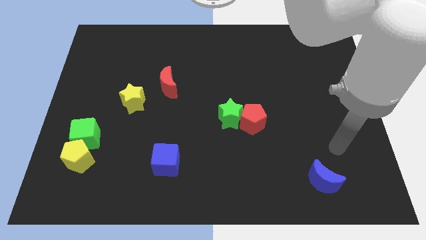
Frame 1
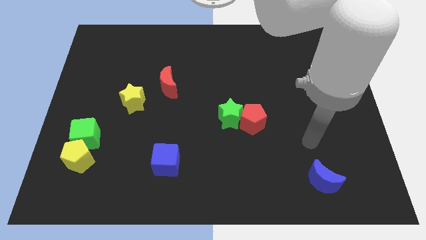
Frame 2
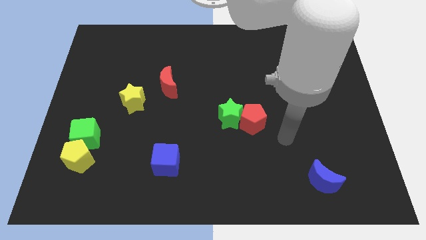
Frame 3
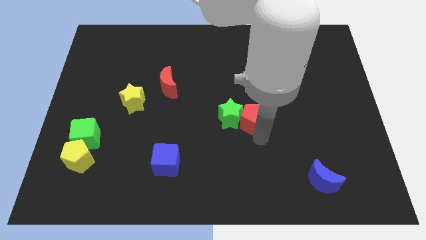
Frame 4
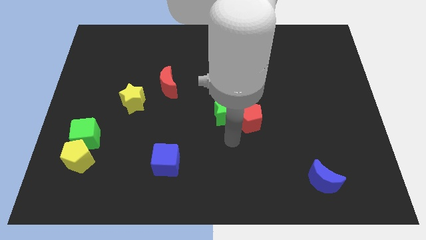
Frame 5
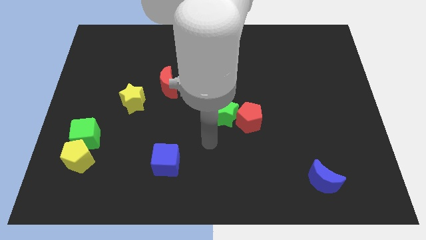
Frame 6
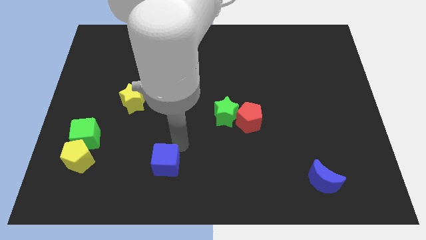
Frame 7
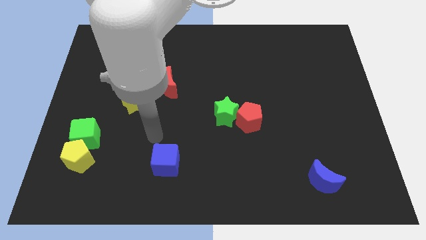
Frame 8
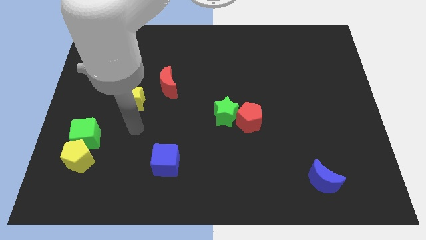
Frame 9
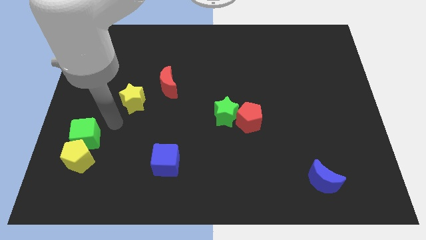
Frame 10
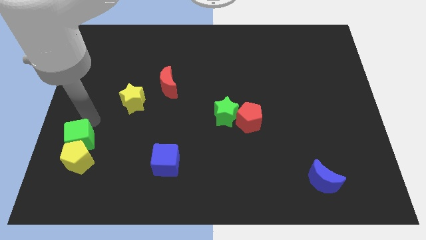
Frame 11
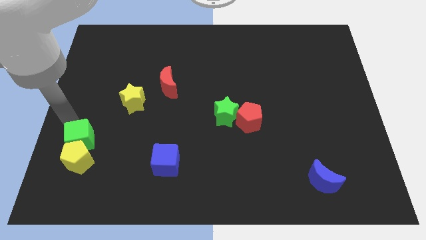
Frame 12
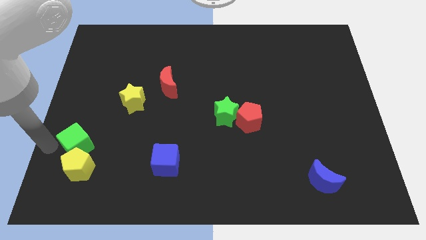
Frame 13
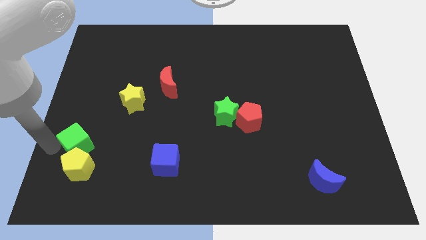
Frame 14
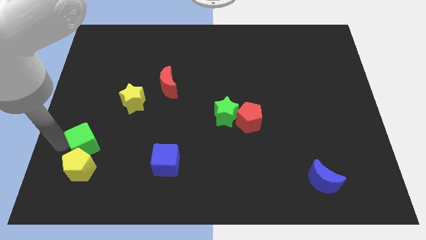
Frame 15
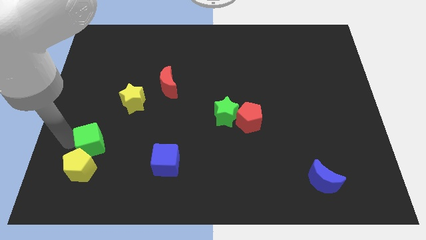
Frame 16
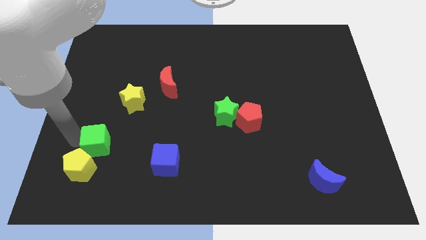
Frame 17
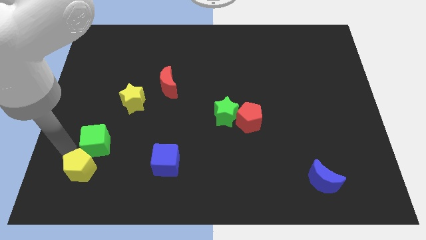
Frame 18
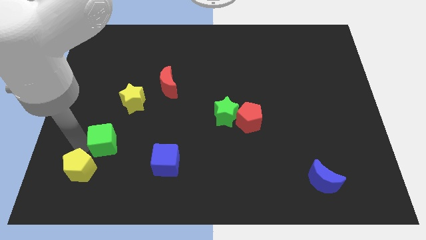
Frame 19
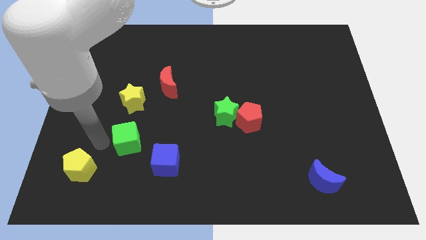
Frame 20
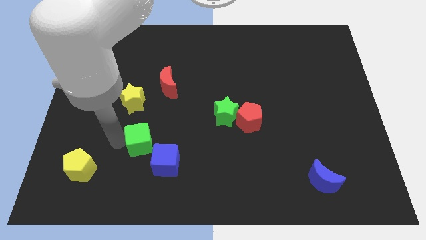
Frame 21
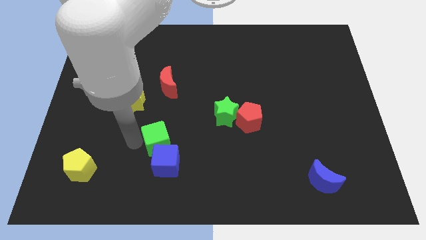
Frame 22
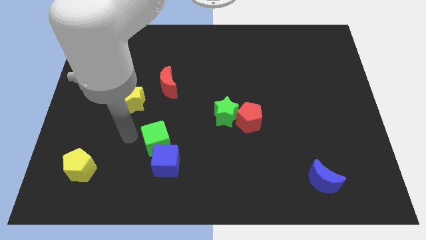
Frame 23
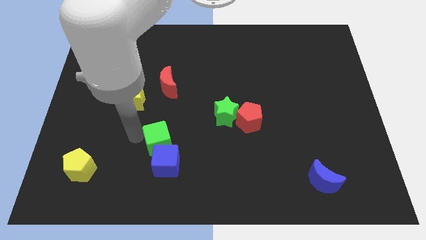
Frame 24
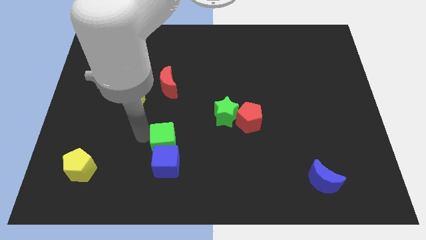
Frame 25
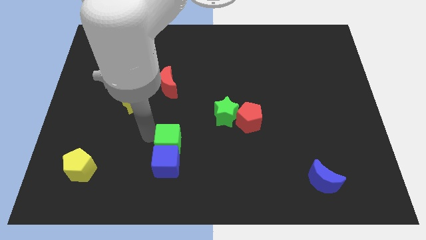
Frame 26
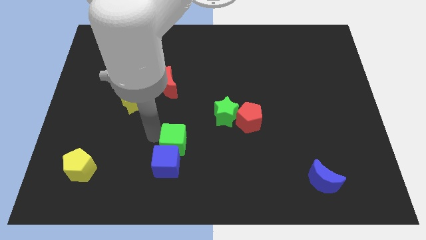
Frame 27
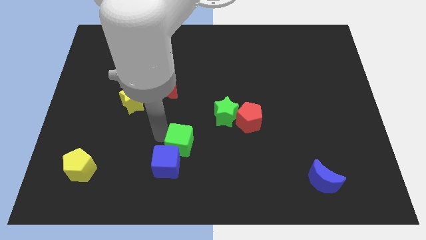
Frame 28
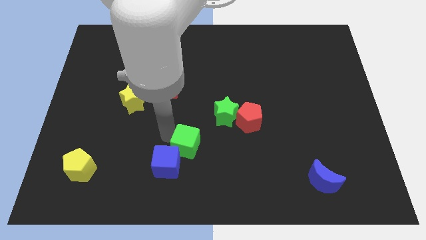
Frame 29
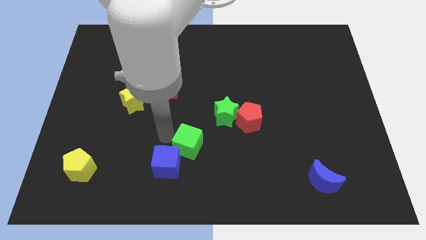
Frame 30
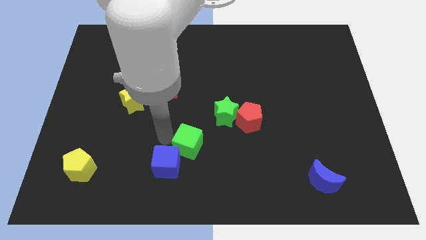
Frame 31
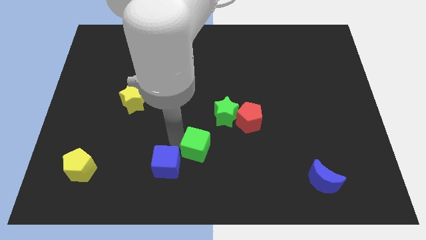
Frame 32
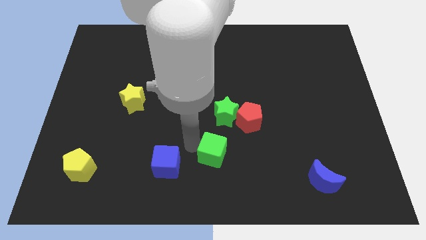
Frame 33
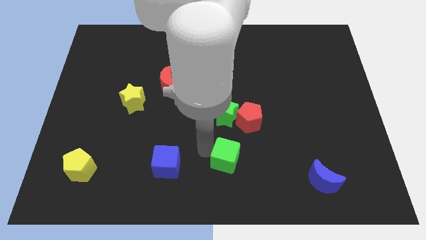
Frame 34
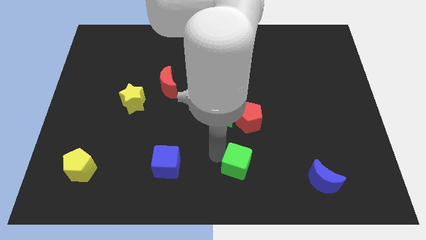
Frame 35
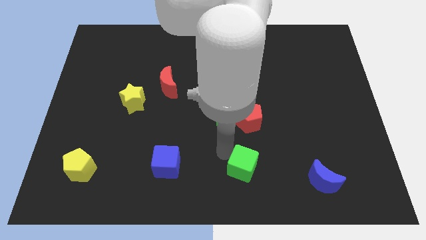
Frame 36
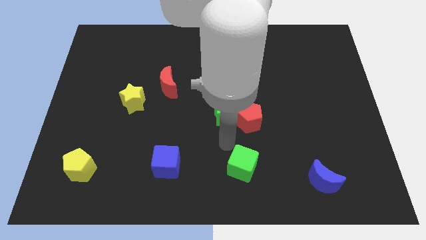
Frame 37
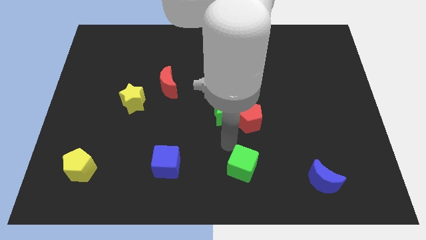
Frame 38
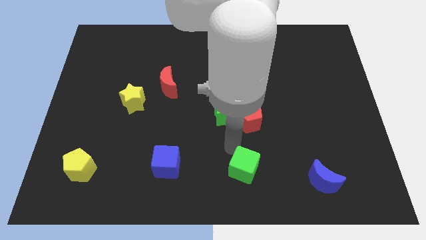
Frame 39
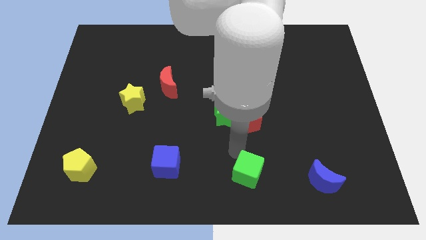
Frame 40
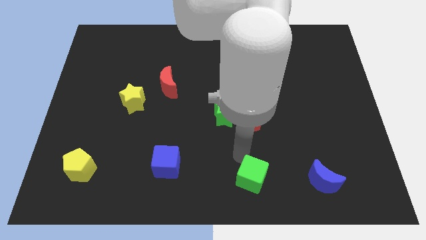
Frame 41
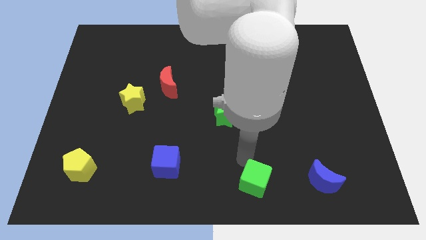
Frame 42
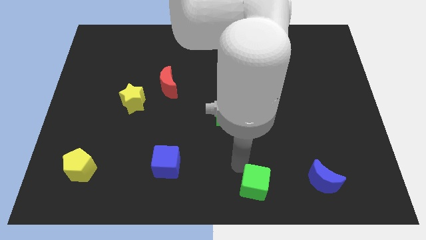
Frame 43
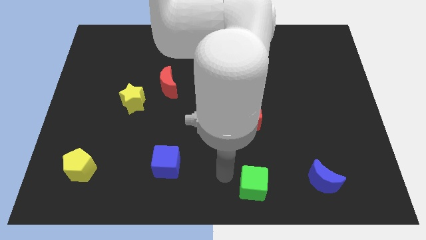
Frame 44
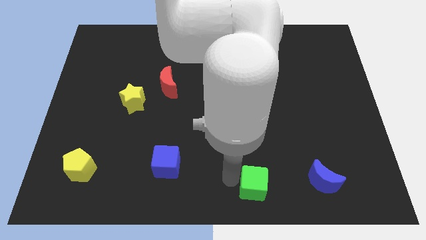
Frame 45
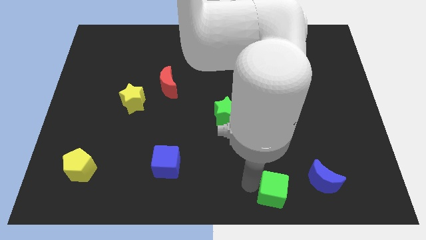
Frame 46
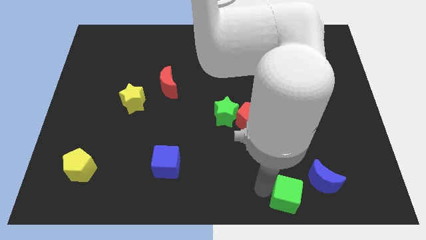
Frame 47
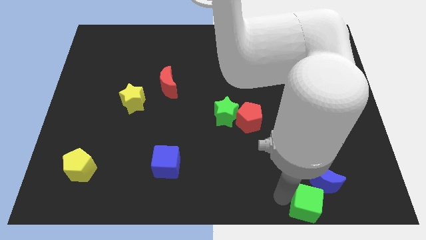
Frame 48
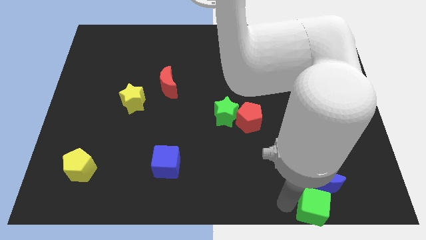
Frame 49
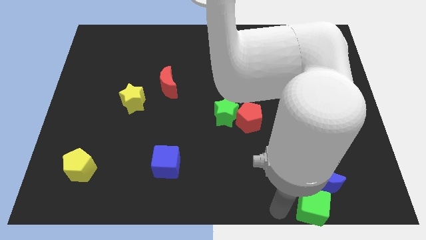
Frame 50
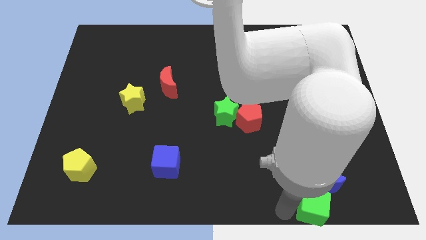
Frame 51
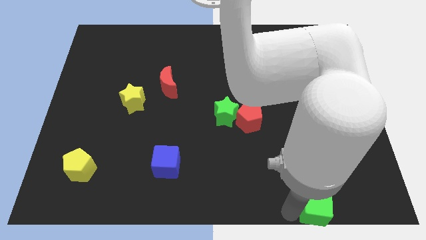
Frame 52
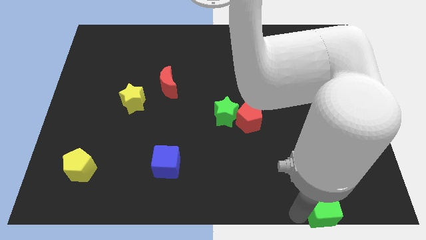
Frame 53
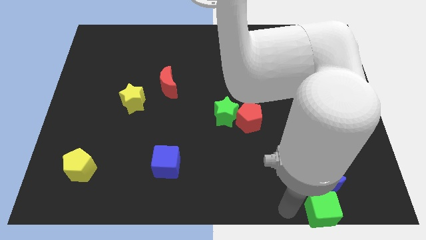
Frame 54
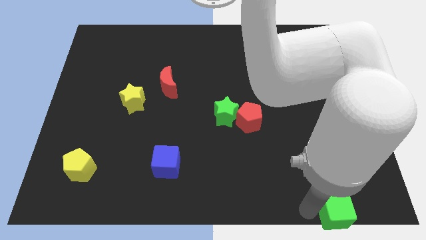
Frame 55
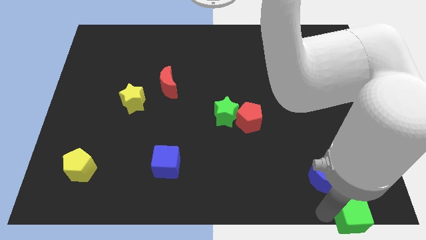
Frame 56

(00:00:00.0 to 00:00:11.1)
push the green cube to the bottom right corner
